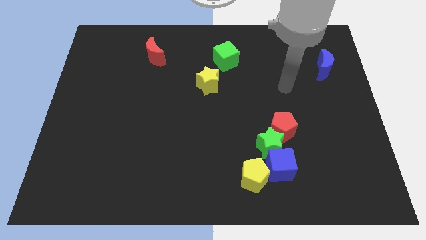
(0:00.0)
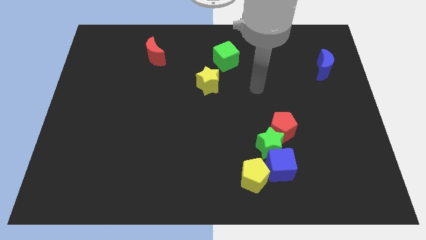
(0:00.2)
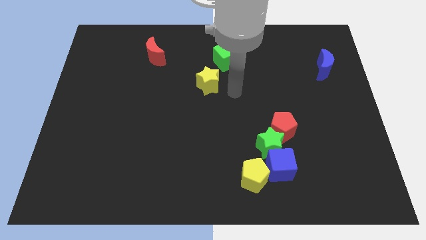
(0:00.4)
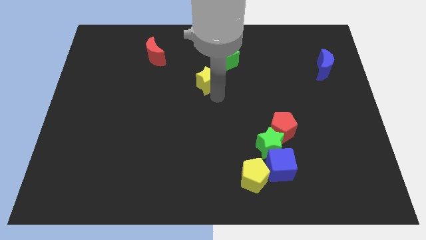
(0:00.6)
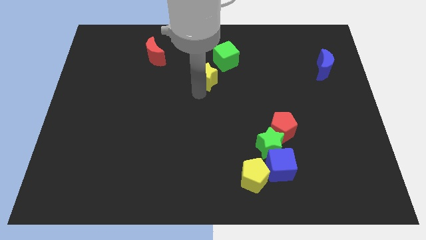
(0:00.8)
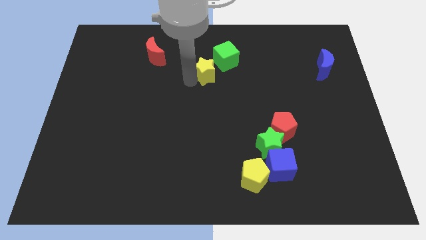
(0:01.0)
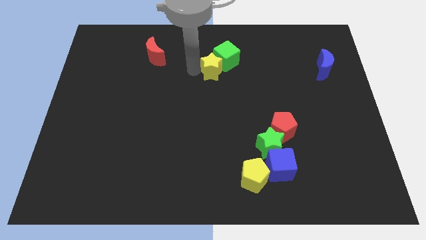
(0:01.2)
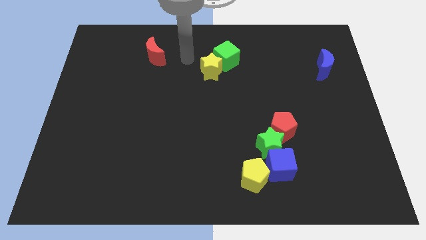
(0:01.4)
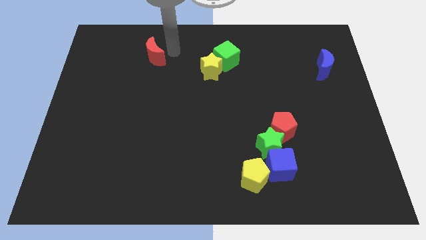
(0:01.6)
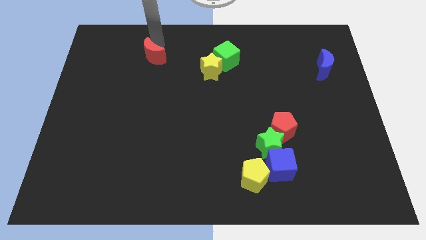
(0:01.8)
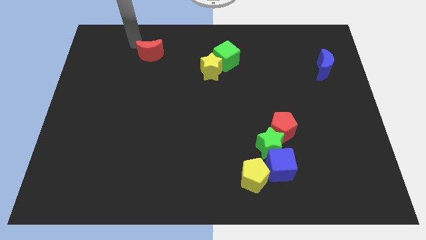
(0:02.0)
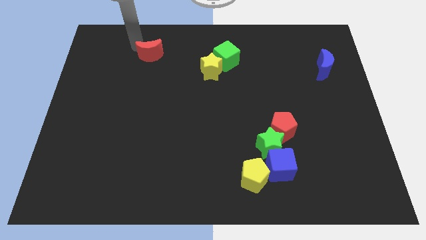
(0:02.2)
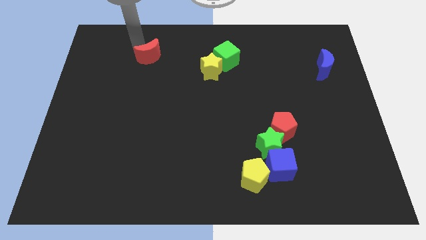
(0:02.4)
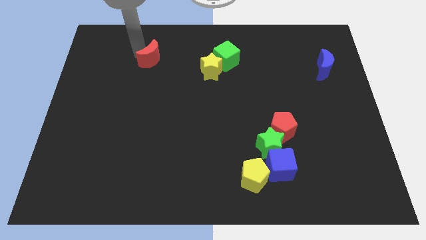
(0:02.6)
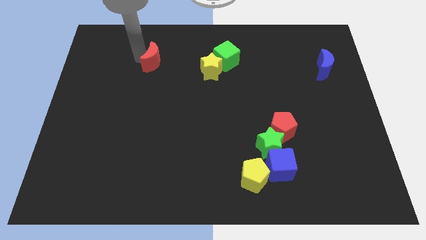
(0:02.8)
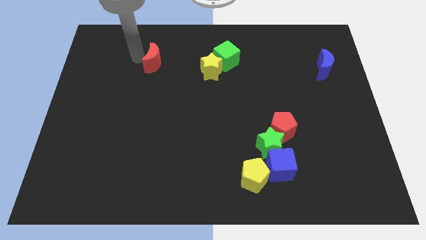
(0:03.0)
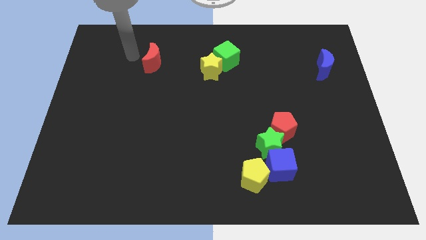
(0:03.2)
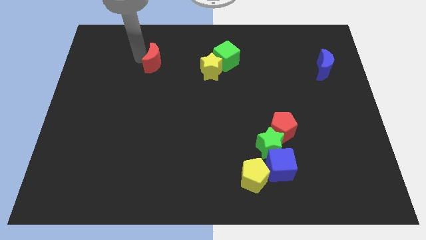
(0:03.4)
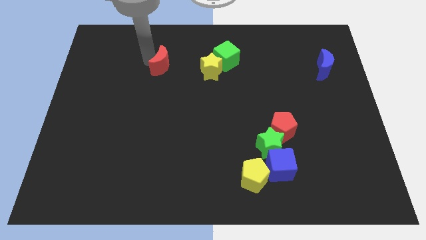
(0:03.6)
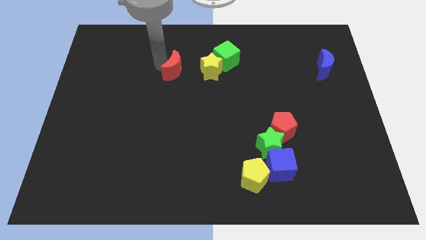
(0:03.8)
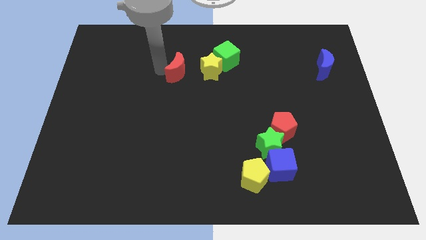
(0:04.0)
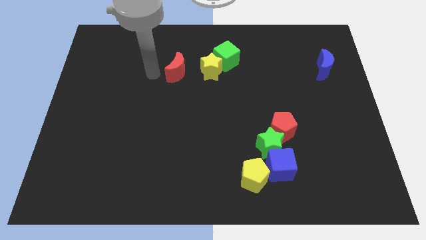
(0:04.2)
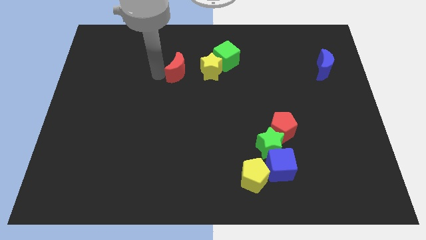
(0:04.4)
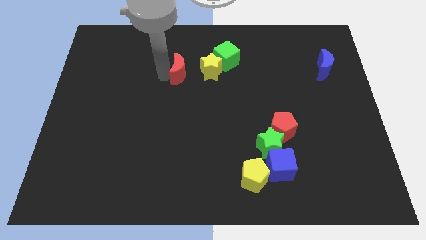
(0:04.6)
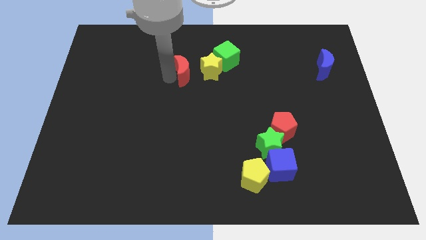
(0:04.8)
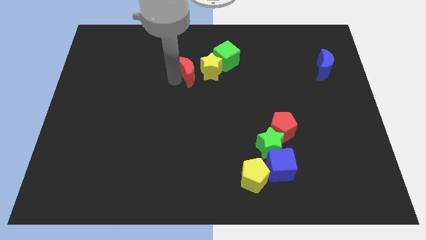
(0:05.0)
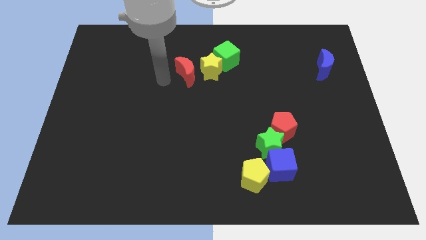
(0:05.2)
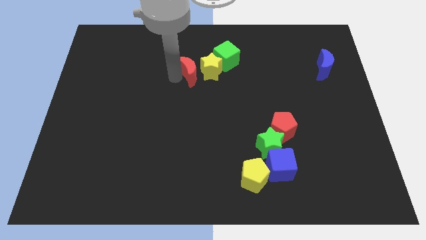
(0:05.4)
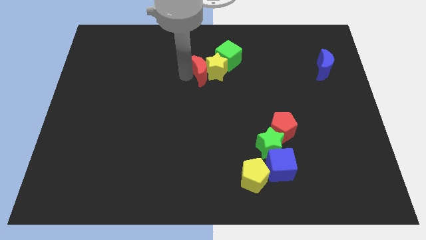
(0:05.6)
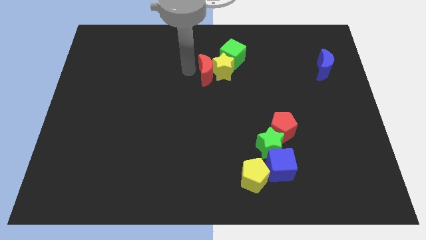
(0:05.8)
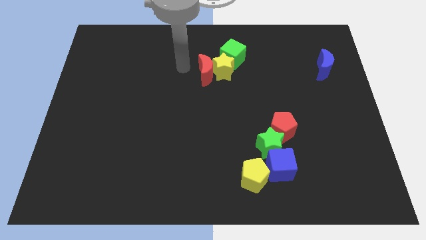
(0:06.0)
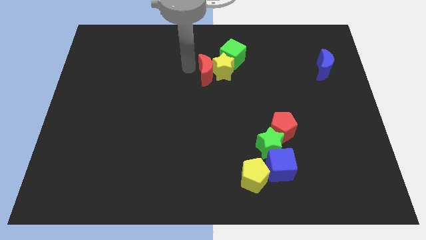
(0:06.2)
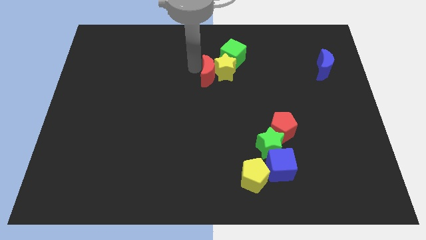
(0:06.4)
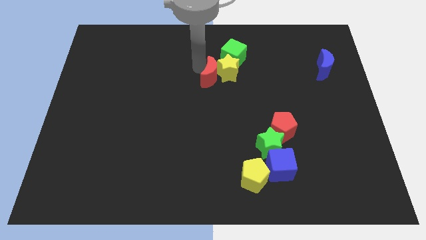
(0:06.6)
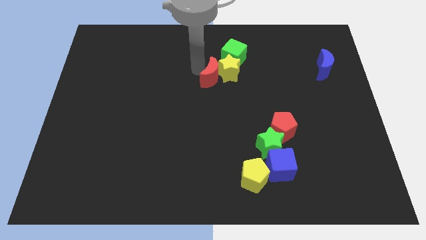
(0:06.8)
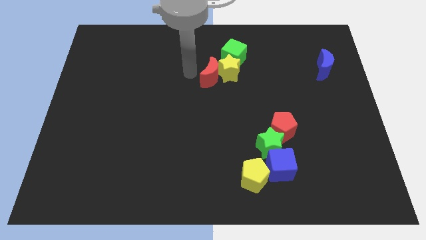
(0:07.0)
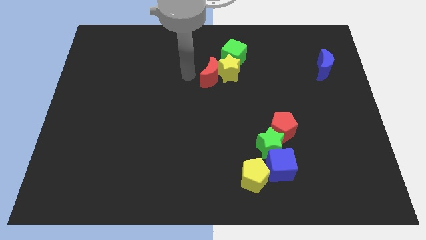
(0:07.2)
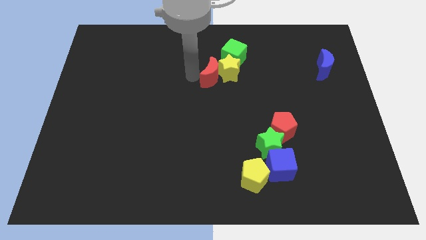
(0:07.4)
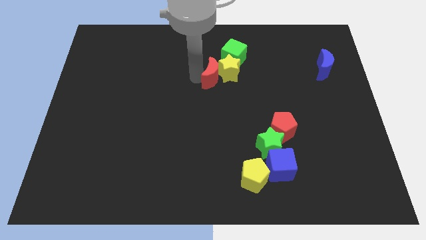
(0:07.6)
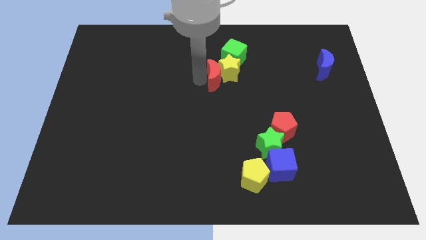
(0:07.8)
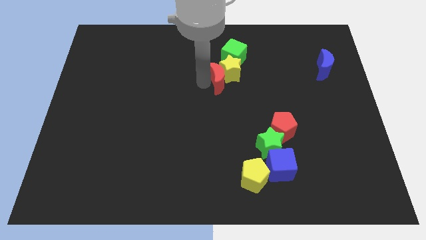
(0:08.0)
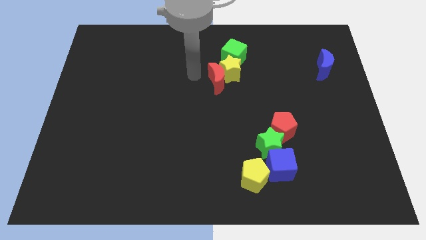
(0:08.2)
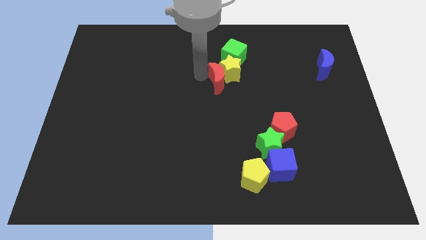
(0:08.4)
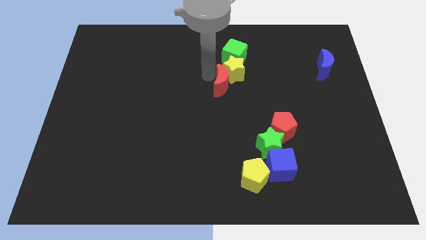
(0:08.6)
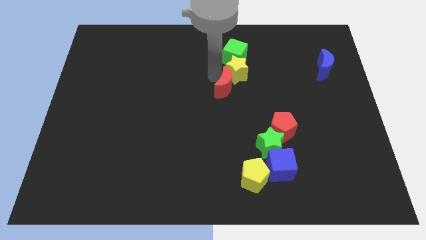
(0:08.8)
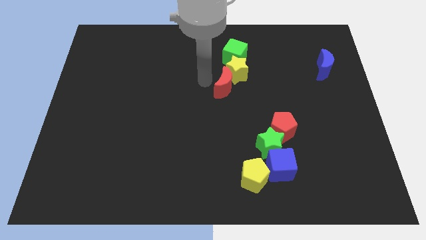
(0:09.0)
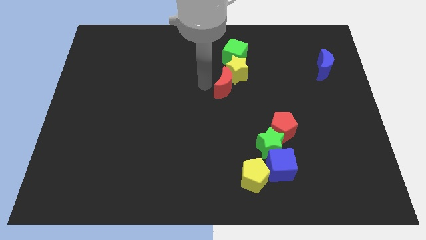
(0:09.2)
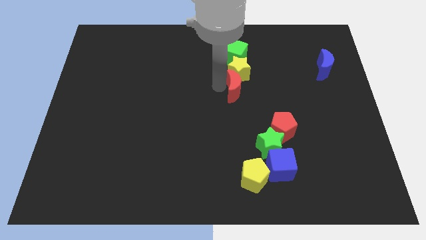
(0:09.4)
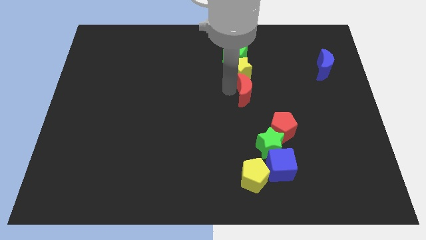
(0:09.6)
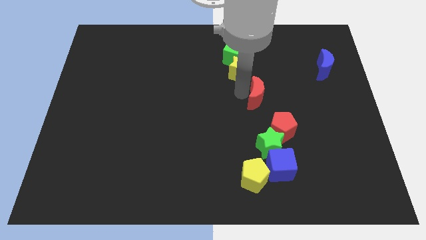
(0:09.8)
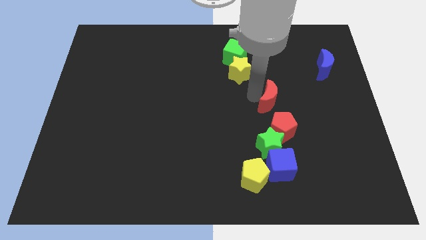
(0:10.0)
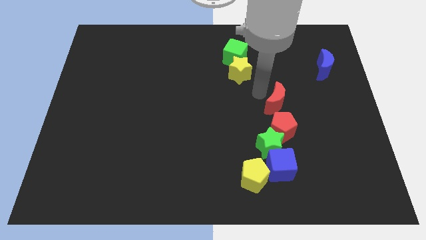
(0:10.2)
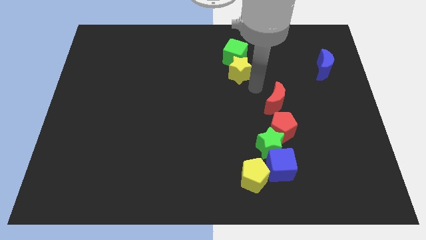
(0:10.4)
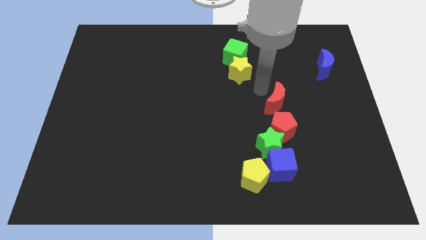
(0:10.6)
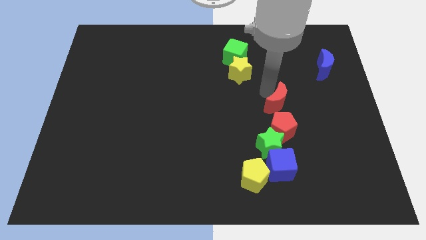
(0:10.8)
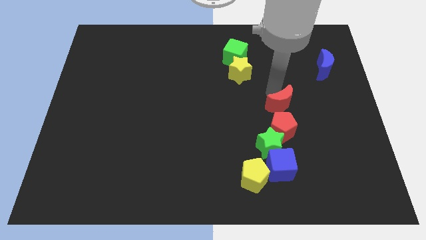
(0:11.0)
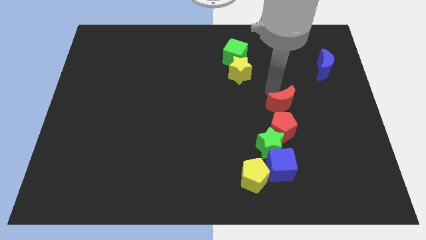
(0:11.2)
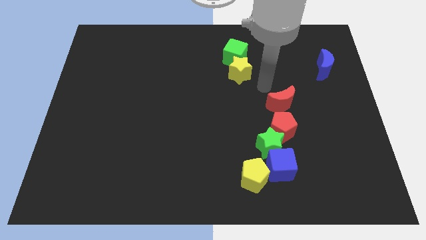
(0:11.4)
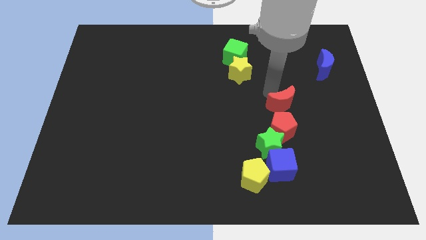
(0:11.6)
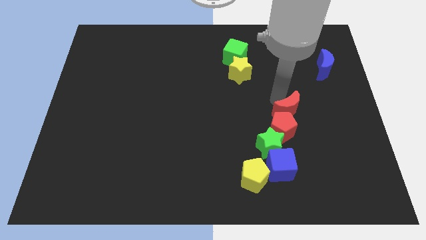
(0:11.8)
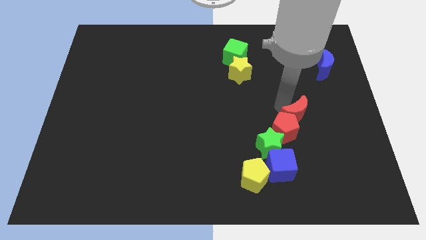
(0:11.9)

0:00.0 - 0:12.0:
push the red moon to the right of the red pentagon
